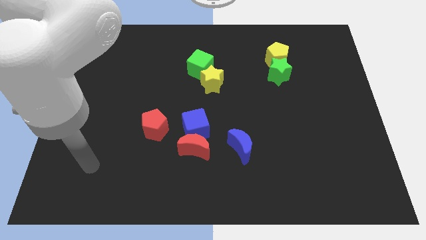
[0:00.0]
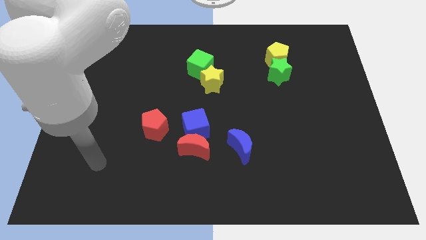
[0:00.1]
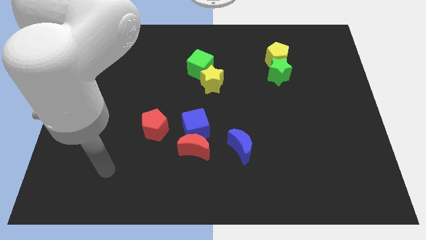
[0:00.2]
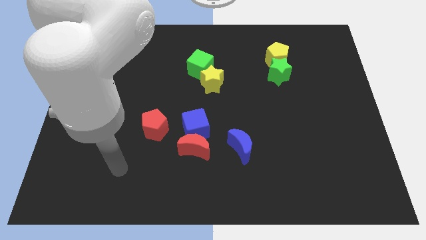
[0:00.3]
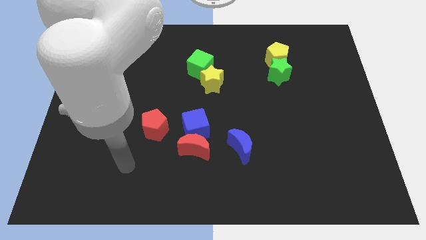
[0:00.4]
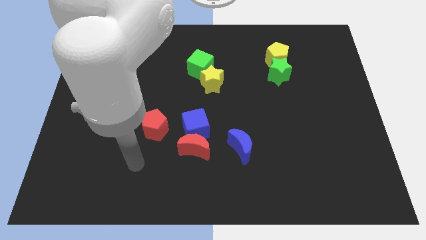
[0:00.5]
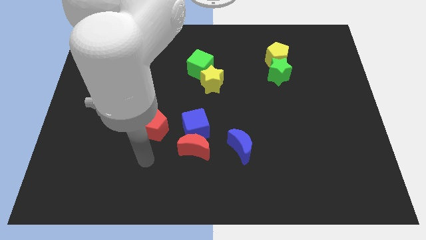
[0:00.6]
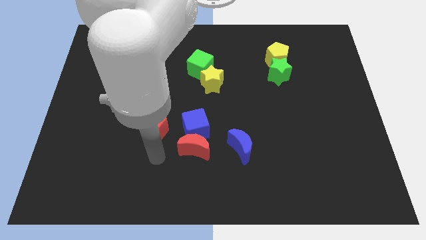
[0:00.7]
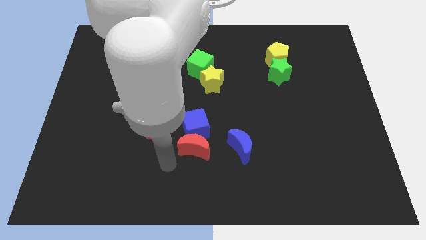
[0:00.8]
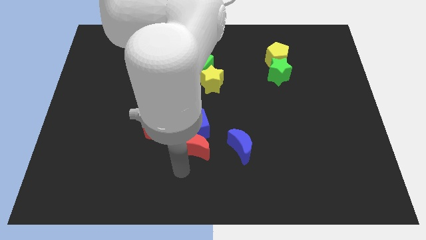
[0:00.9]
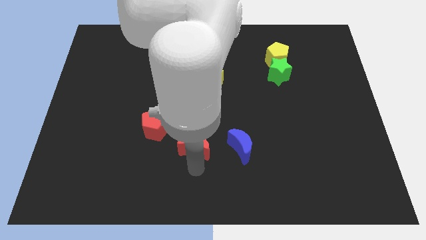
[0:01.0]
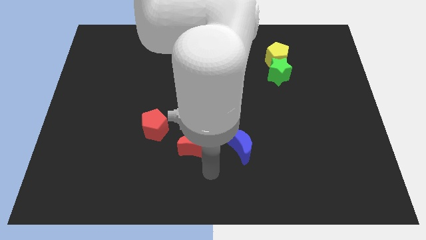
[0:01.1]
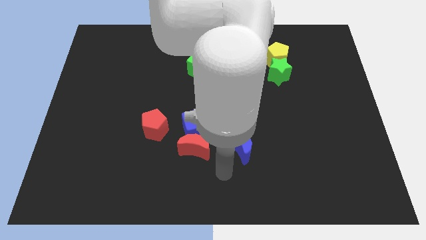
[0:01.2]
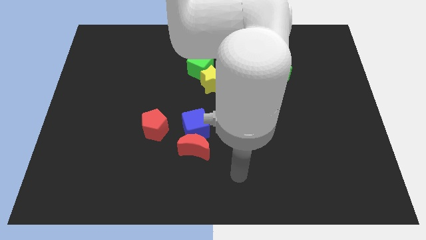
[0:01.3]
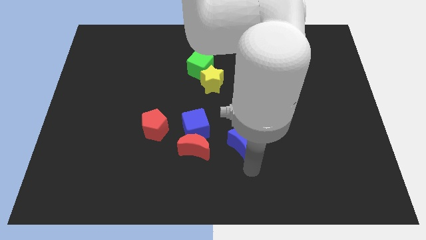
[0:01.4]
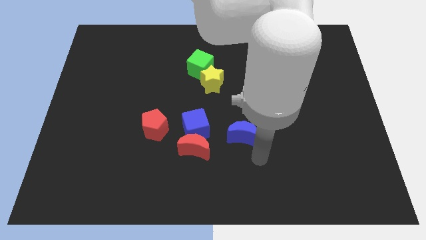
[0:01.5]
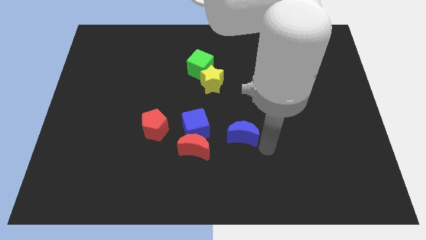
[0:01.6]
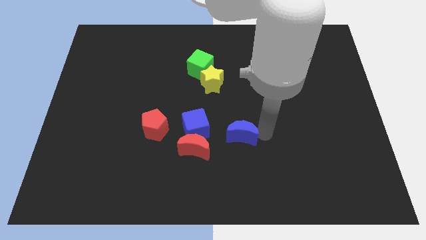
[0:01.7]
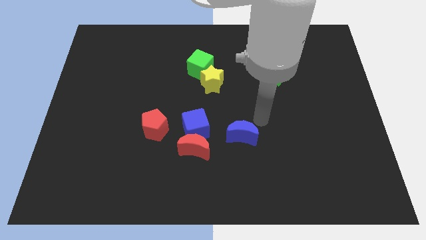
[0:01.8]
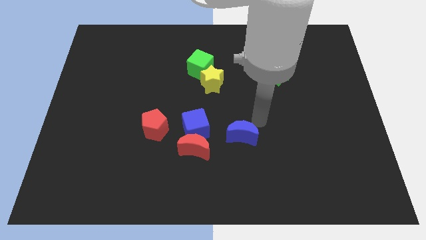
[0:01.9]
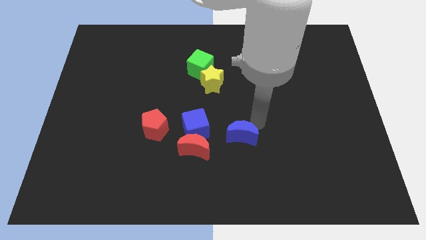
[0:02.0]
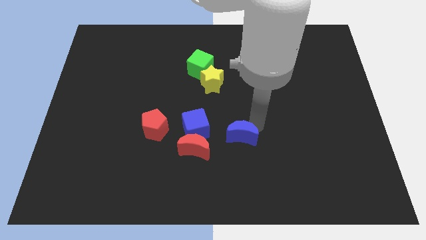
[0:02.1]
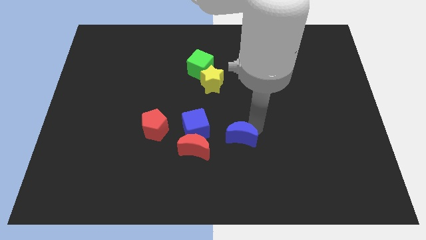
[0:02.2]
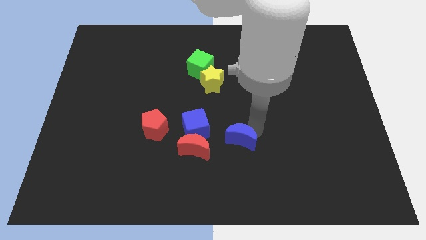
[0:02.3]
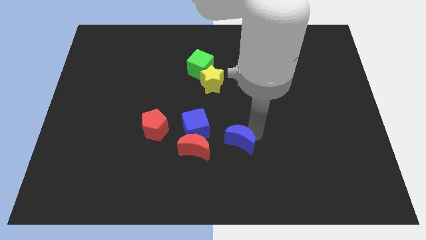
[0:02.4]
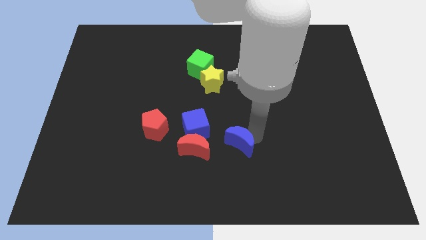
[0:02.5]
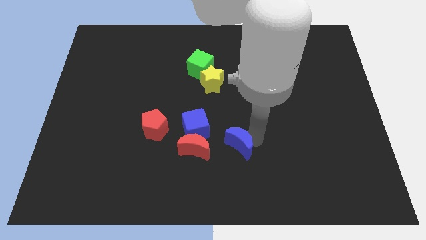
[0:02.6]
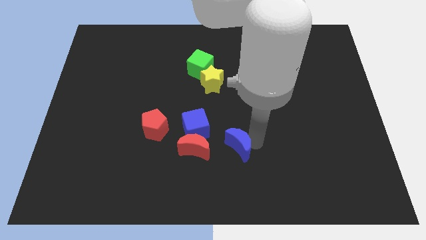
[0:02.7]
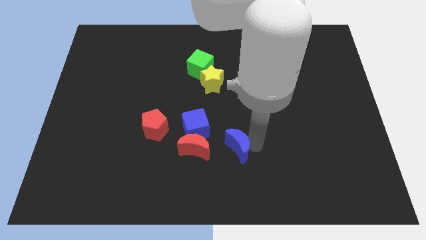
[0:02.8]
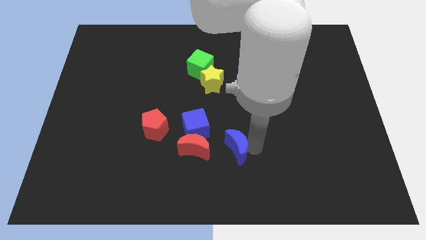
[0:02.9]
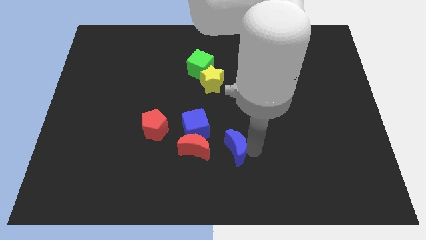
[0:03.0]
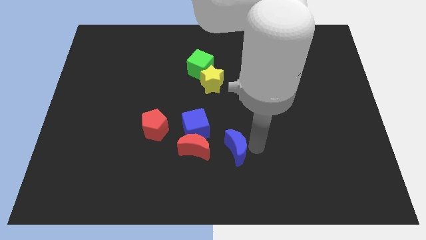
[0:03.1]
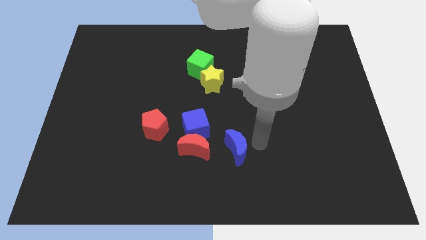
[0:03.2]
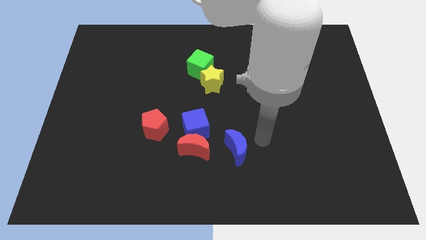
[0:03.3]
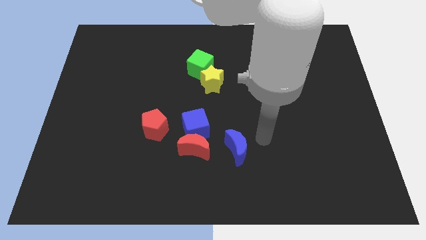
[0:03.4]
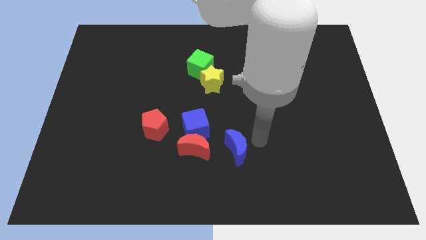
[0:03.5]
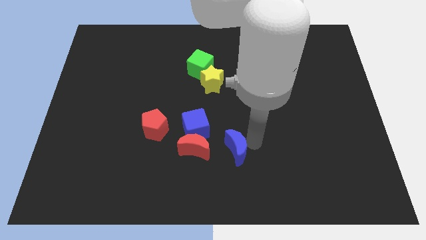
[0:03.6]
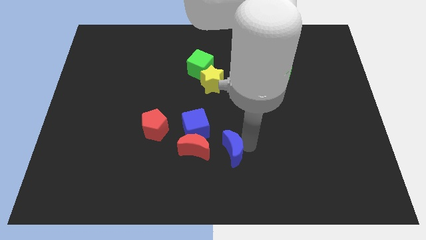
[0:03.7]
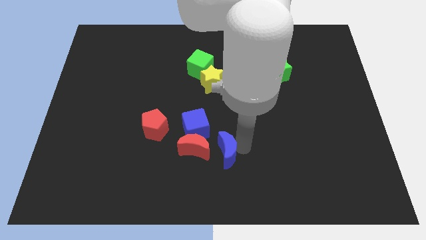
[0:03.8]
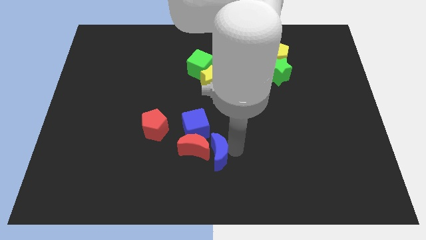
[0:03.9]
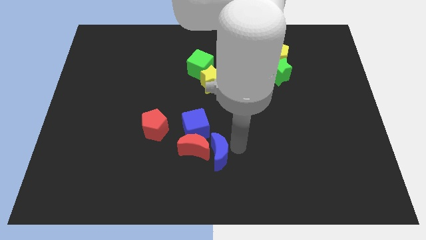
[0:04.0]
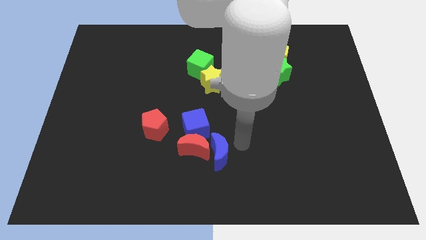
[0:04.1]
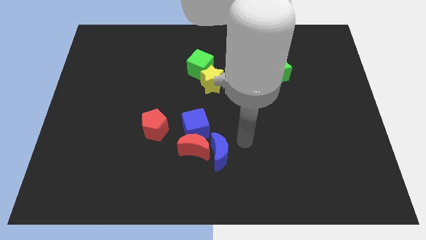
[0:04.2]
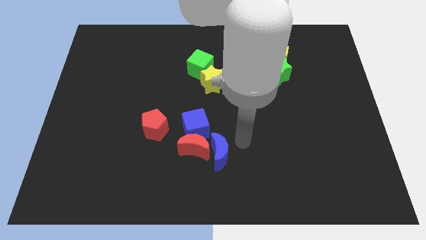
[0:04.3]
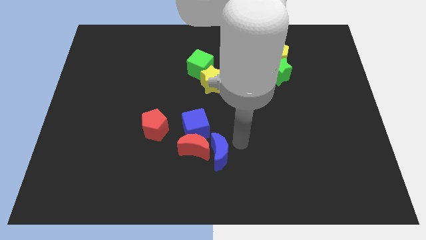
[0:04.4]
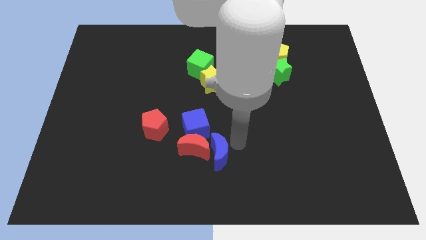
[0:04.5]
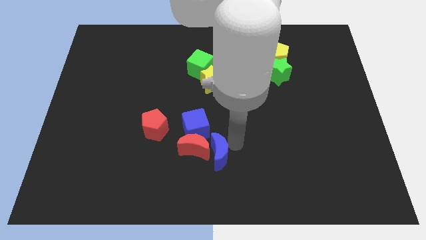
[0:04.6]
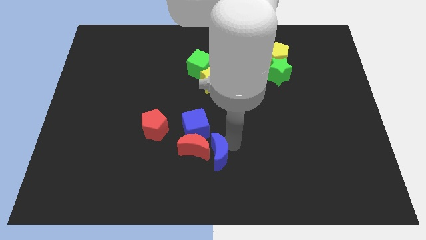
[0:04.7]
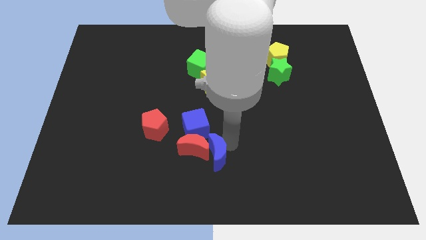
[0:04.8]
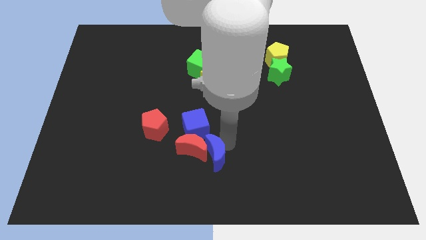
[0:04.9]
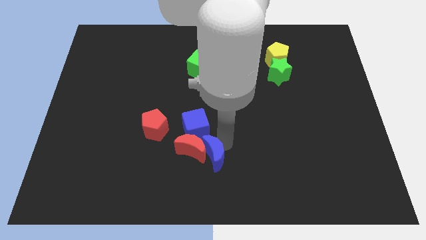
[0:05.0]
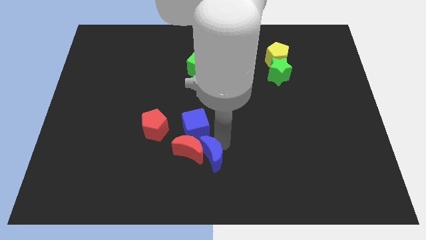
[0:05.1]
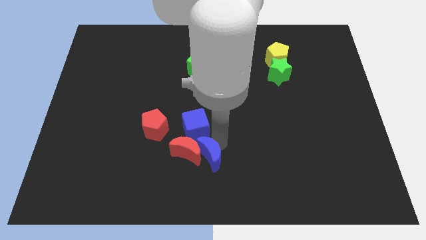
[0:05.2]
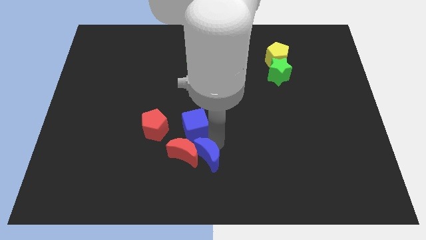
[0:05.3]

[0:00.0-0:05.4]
slightly move the blue moon to the left

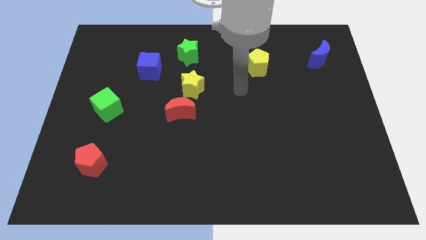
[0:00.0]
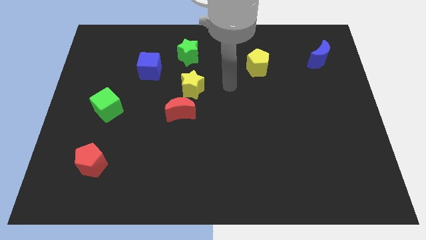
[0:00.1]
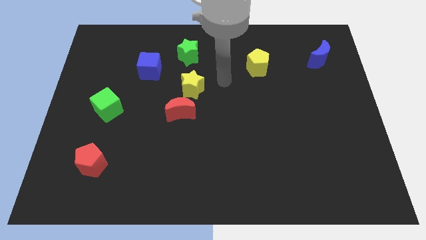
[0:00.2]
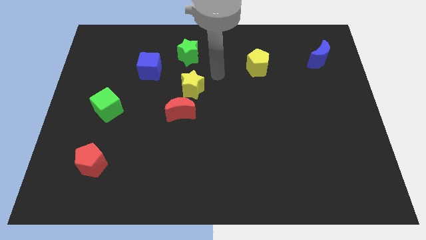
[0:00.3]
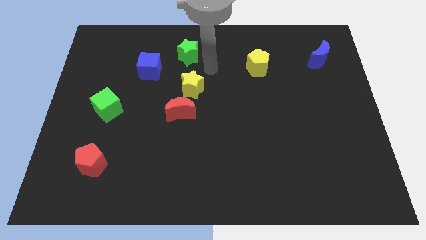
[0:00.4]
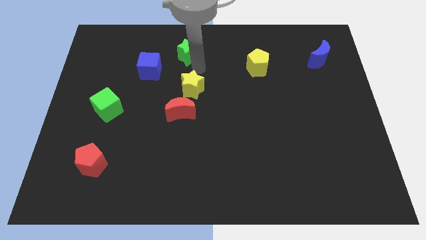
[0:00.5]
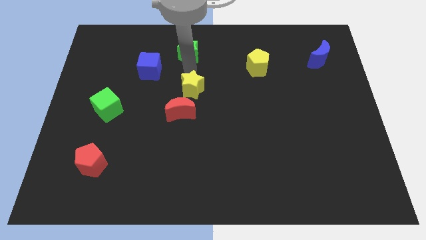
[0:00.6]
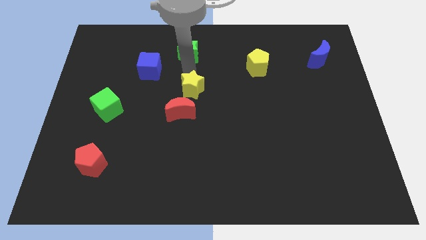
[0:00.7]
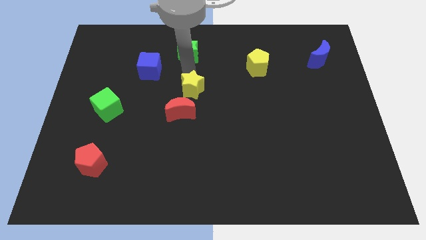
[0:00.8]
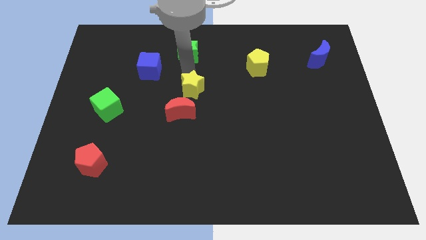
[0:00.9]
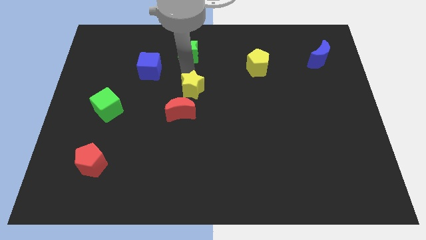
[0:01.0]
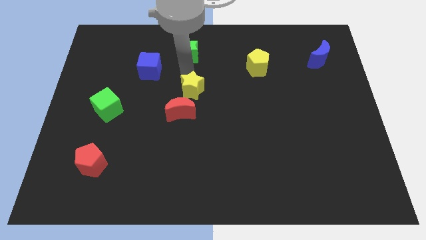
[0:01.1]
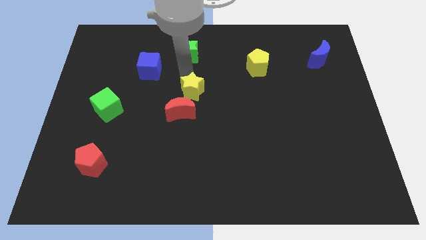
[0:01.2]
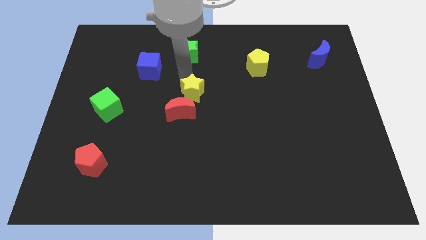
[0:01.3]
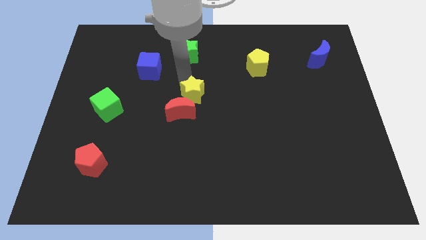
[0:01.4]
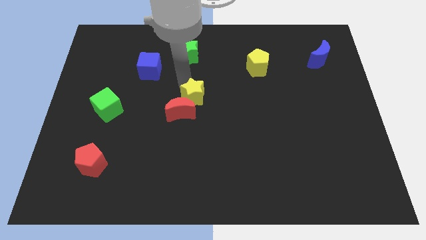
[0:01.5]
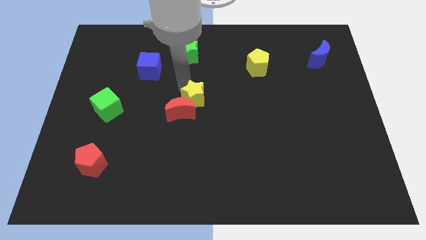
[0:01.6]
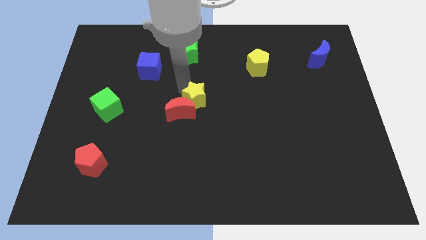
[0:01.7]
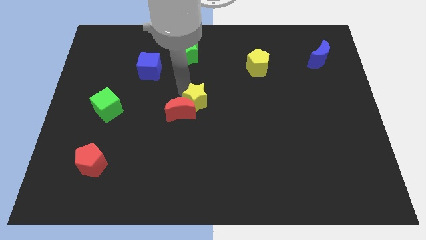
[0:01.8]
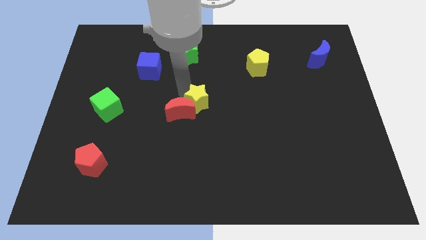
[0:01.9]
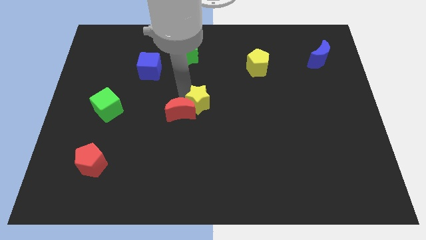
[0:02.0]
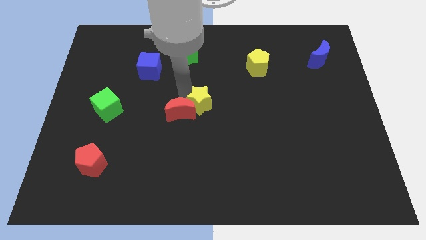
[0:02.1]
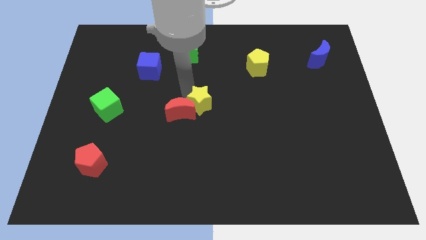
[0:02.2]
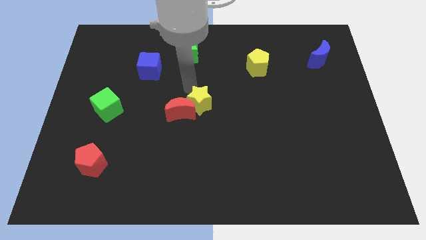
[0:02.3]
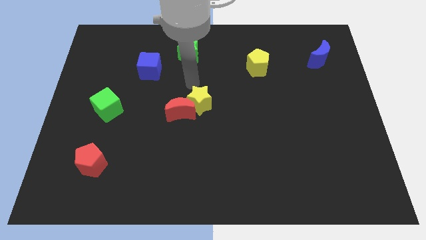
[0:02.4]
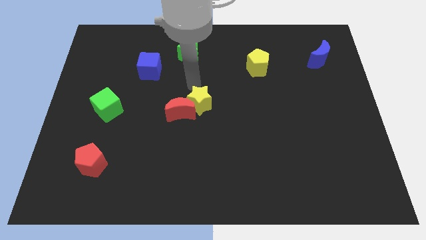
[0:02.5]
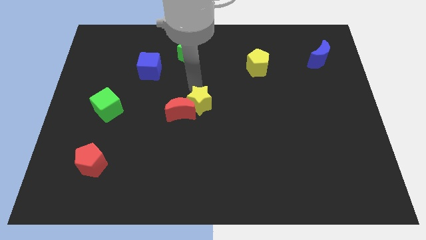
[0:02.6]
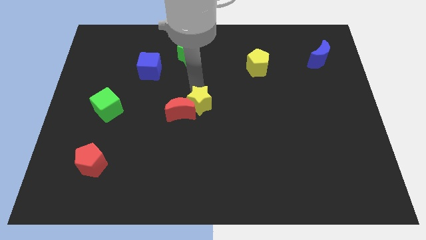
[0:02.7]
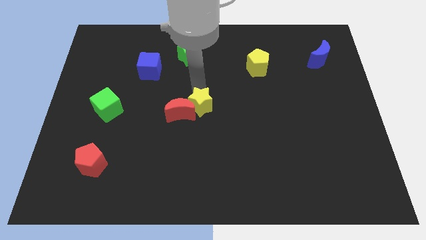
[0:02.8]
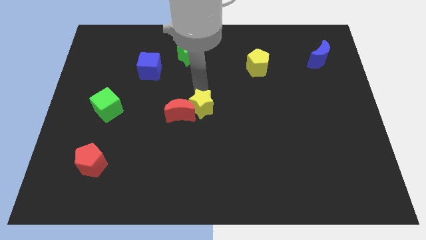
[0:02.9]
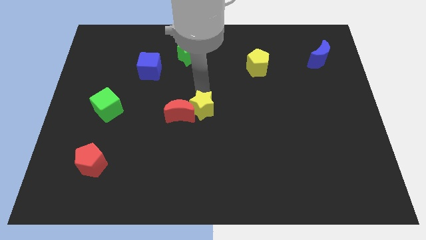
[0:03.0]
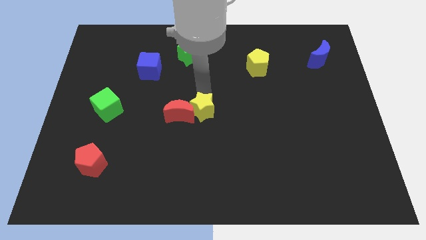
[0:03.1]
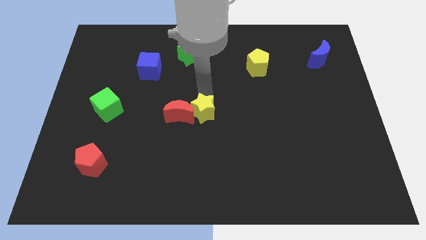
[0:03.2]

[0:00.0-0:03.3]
move the yellow star somewhat down
